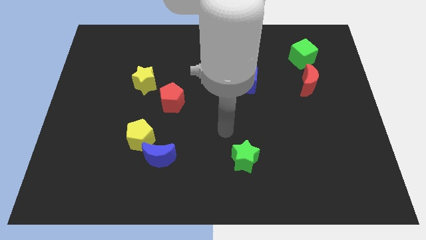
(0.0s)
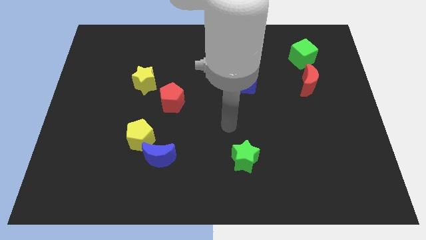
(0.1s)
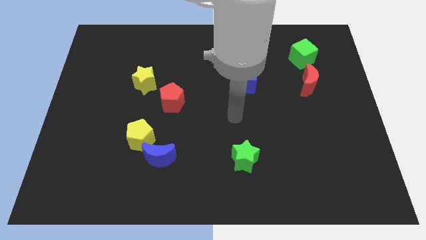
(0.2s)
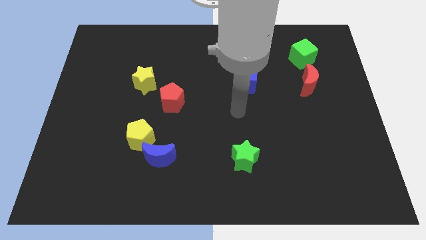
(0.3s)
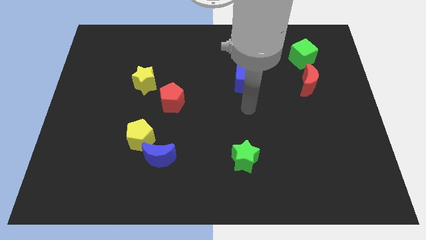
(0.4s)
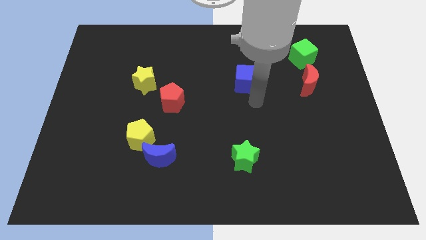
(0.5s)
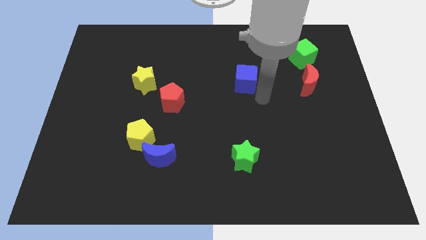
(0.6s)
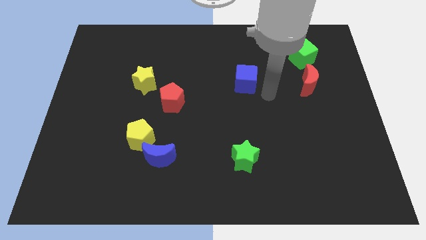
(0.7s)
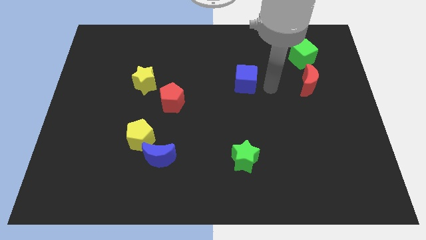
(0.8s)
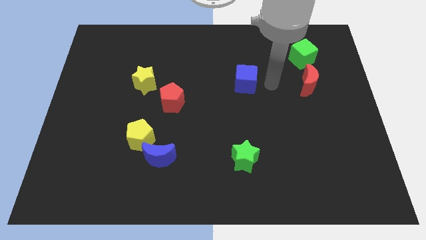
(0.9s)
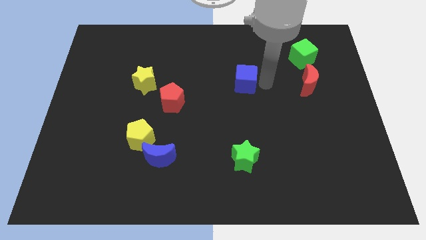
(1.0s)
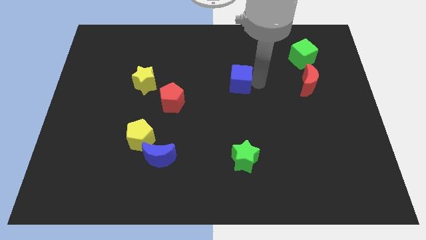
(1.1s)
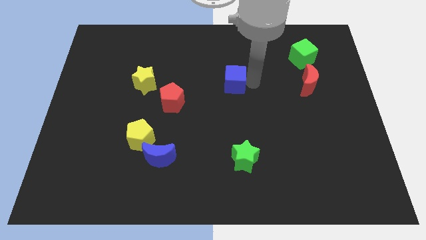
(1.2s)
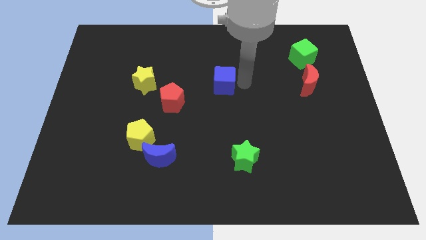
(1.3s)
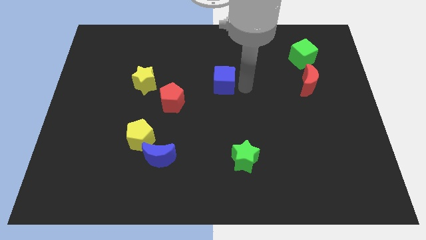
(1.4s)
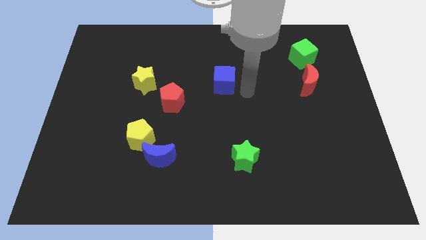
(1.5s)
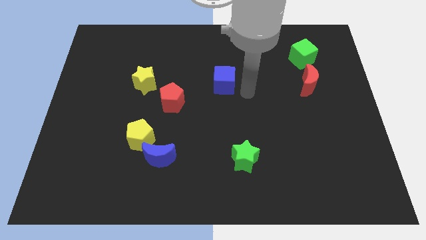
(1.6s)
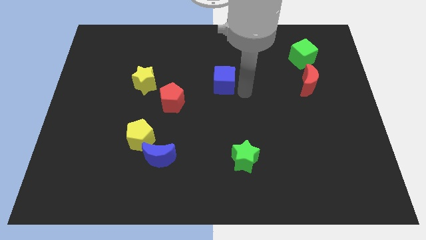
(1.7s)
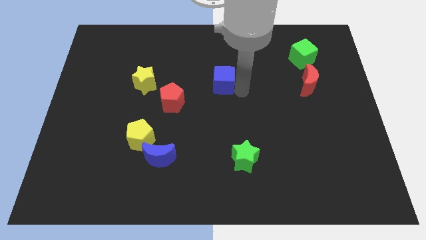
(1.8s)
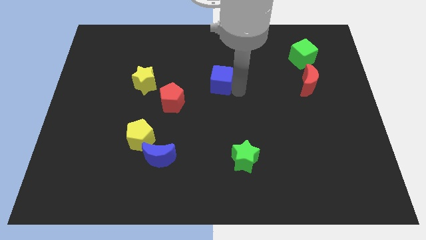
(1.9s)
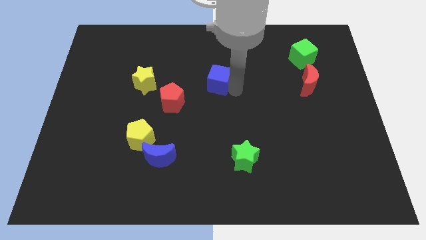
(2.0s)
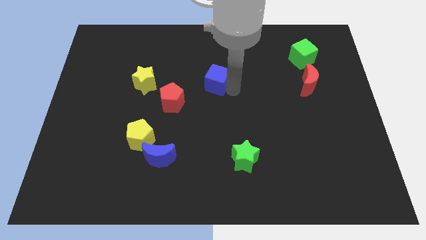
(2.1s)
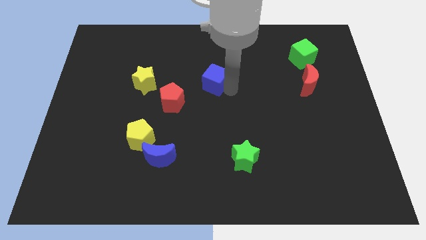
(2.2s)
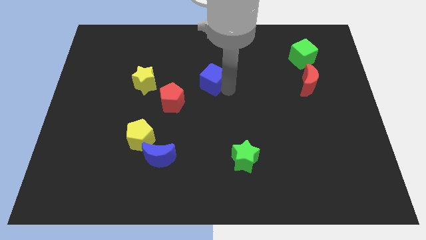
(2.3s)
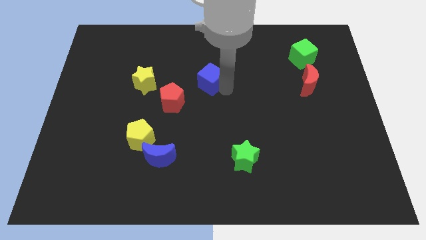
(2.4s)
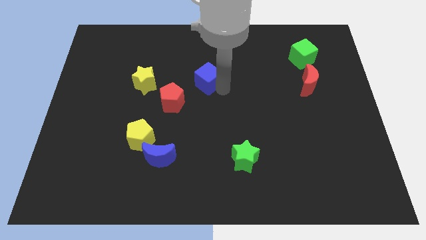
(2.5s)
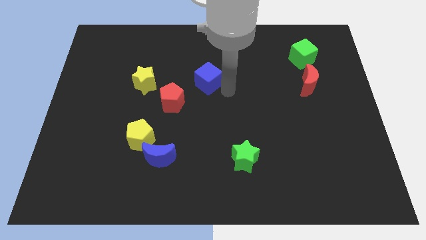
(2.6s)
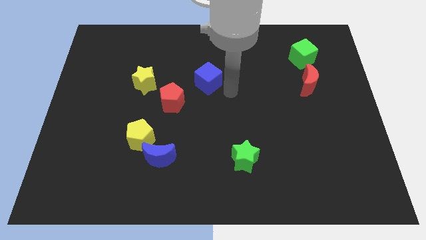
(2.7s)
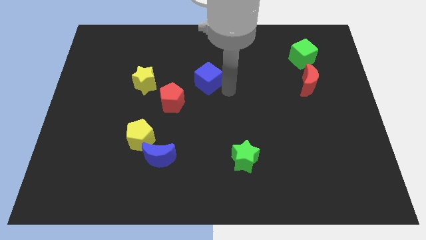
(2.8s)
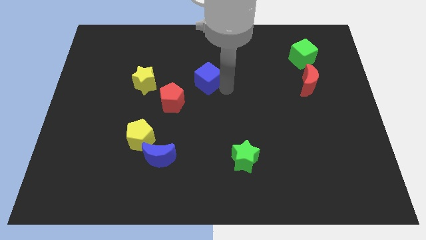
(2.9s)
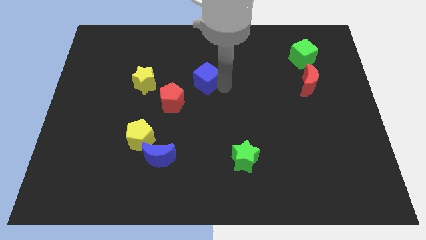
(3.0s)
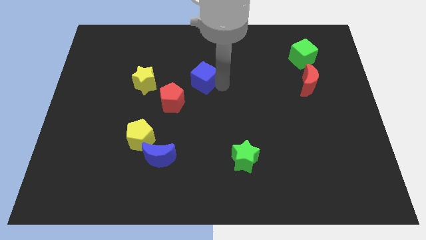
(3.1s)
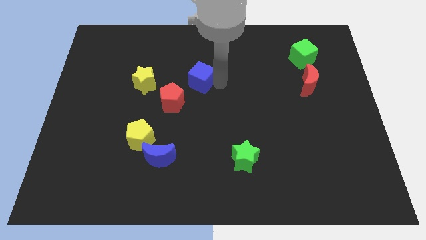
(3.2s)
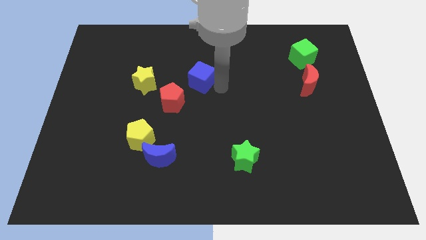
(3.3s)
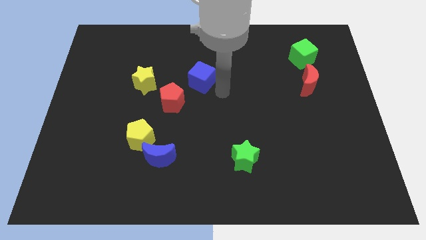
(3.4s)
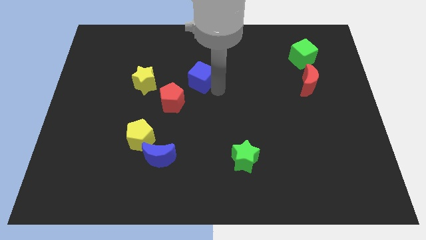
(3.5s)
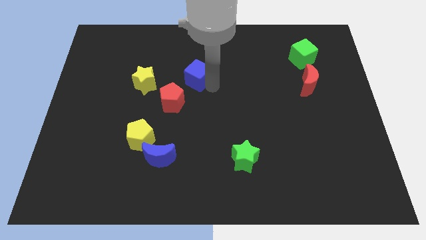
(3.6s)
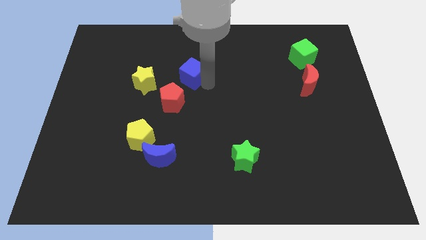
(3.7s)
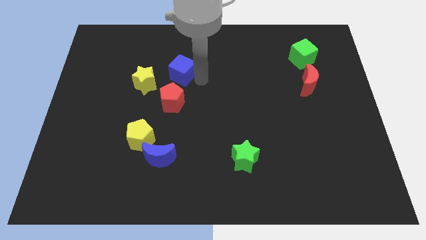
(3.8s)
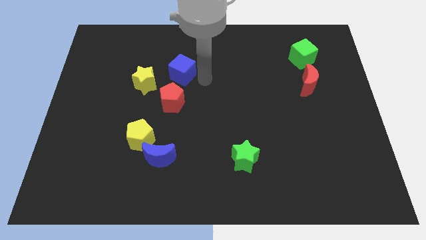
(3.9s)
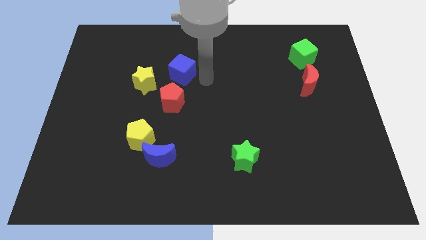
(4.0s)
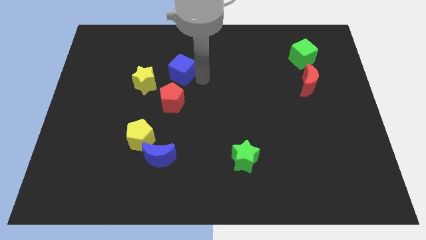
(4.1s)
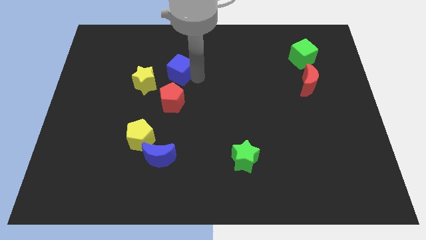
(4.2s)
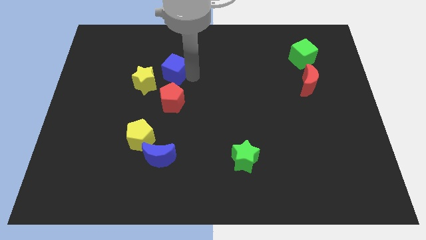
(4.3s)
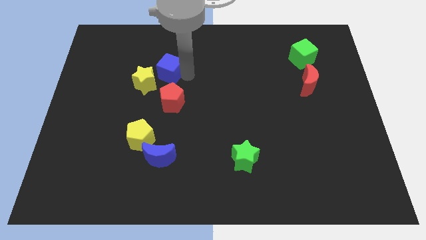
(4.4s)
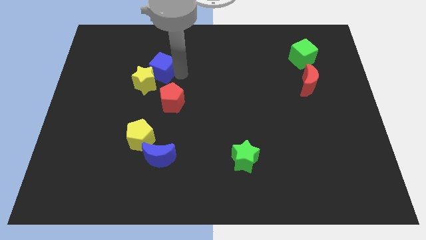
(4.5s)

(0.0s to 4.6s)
slide the blue cube left

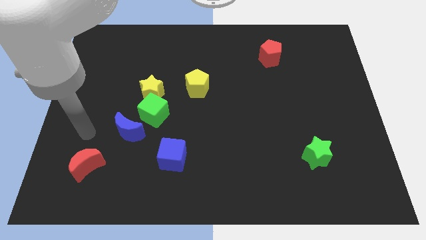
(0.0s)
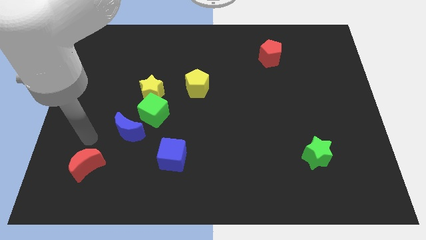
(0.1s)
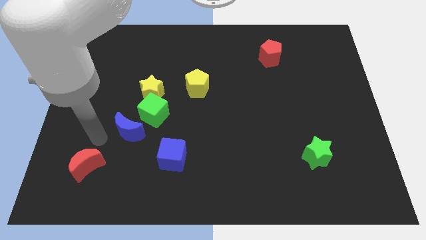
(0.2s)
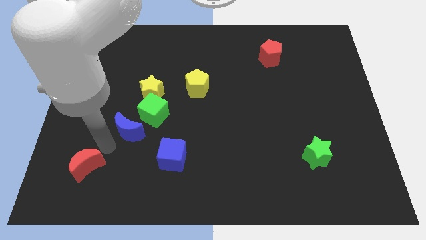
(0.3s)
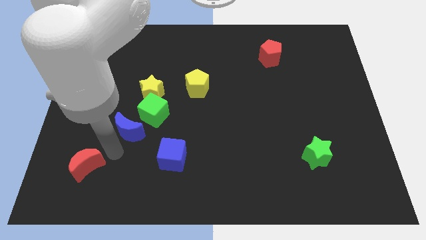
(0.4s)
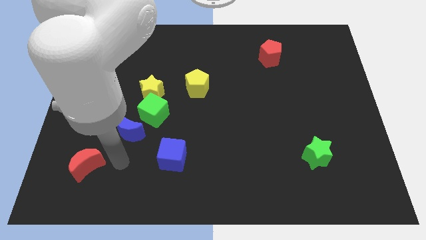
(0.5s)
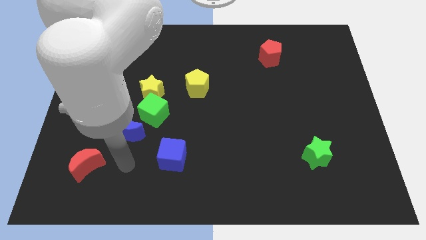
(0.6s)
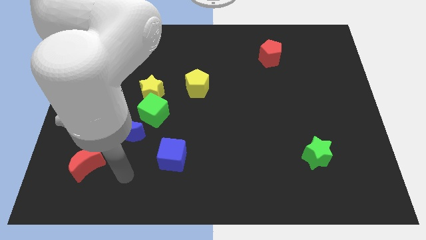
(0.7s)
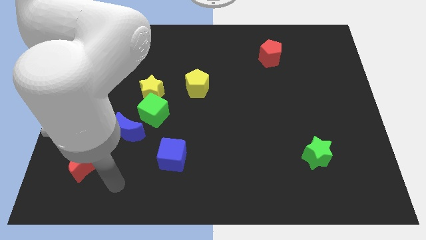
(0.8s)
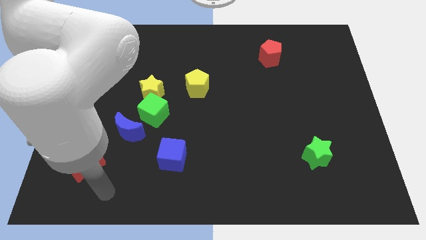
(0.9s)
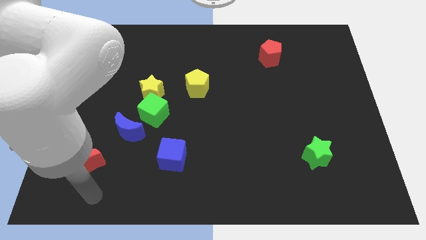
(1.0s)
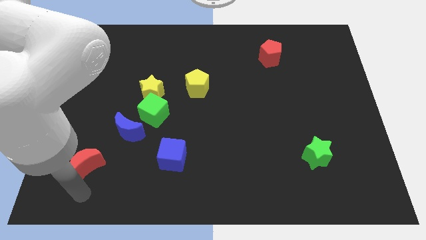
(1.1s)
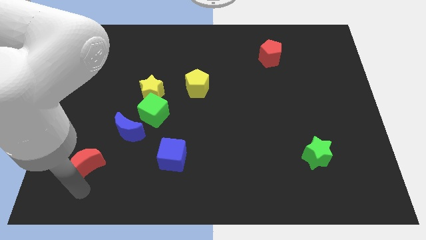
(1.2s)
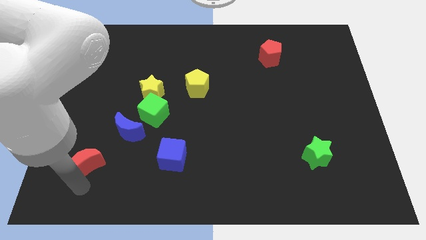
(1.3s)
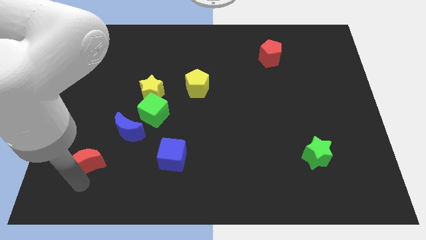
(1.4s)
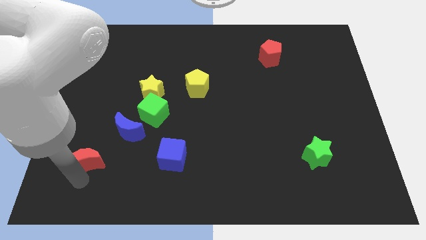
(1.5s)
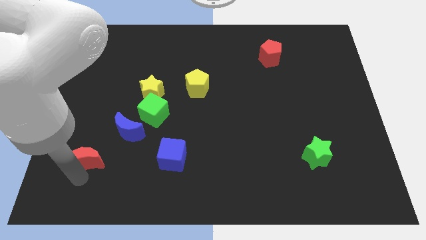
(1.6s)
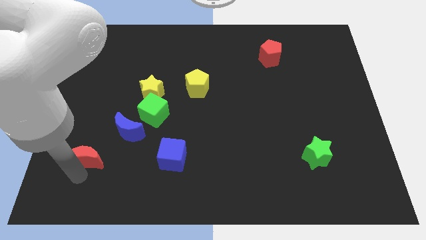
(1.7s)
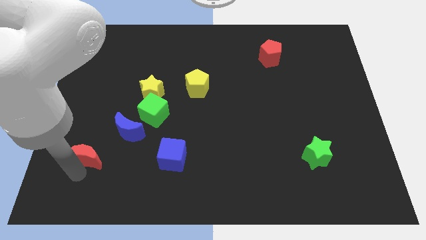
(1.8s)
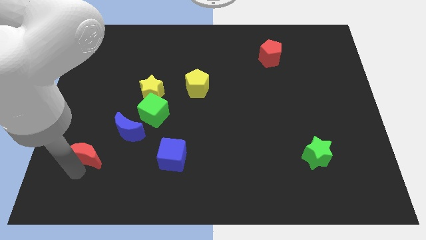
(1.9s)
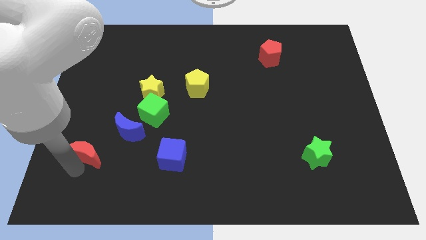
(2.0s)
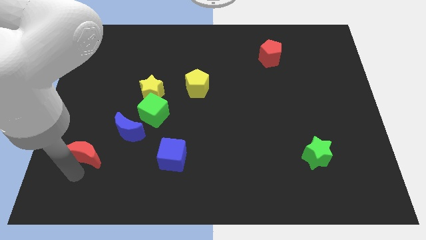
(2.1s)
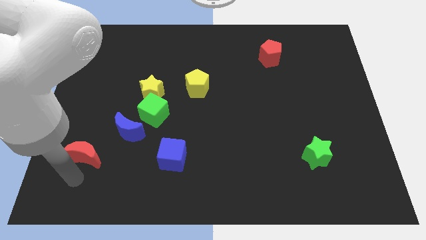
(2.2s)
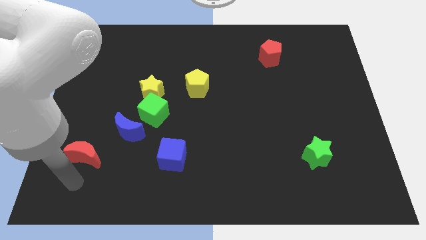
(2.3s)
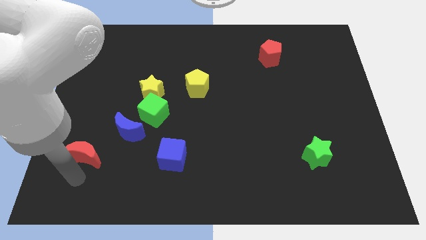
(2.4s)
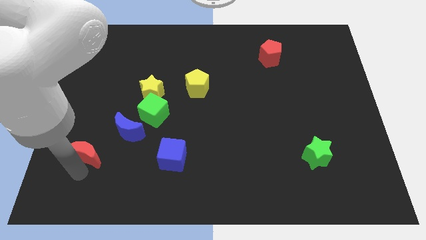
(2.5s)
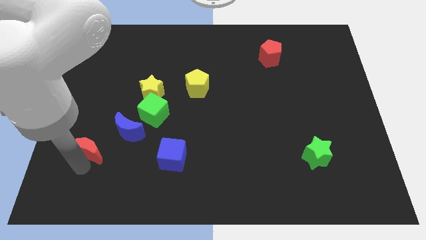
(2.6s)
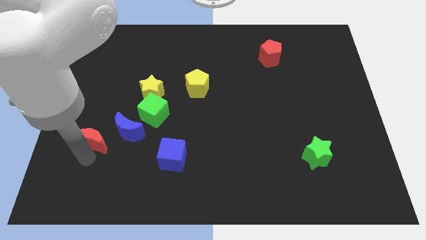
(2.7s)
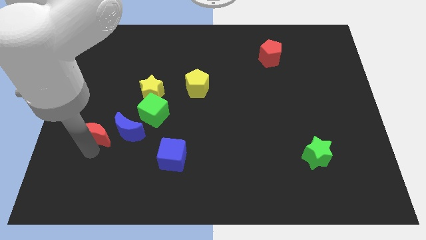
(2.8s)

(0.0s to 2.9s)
move the red moon up somewhat

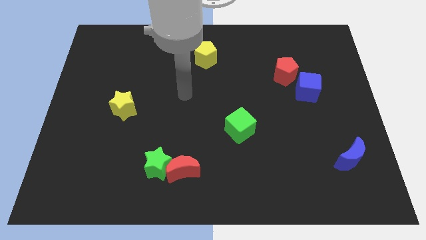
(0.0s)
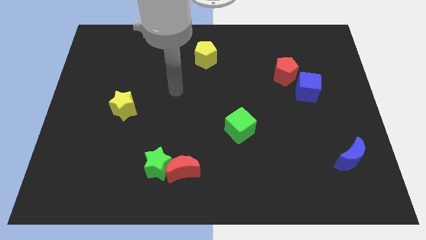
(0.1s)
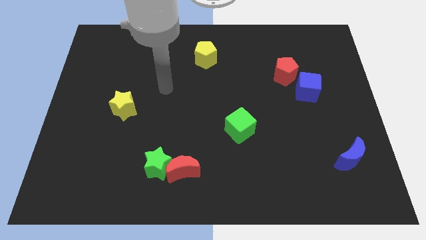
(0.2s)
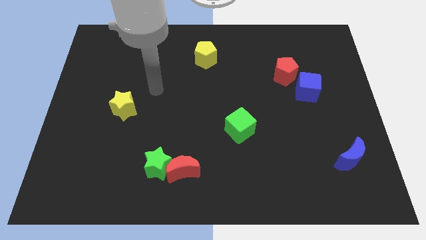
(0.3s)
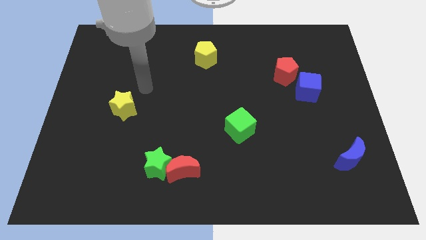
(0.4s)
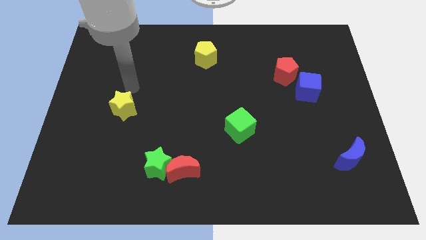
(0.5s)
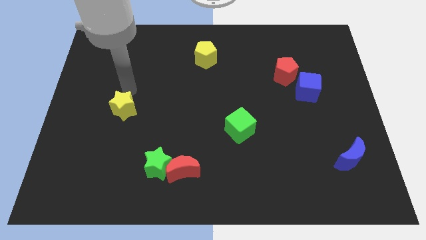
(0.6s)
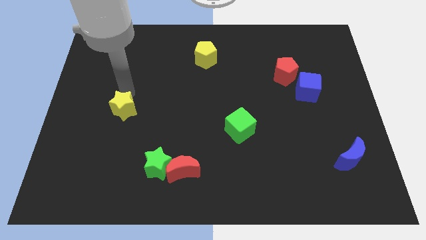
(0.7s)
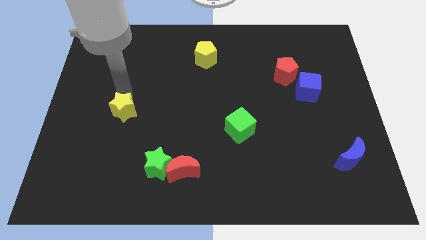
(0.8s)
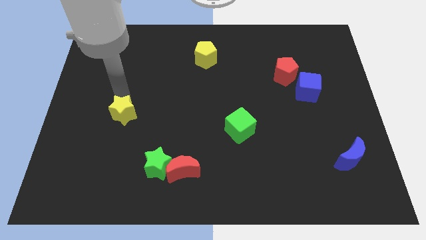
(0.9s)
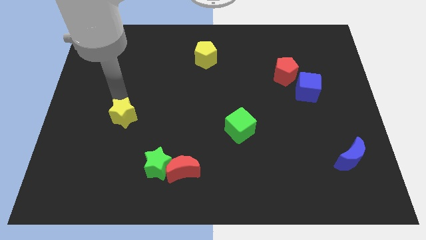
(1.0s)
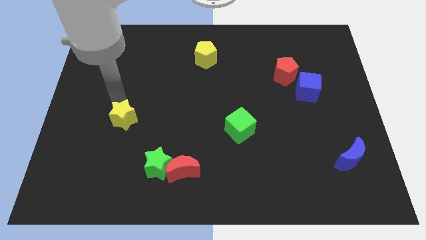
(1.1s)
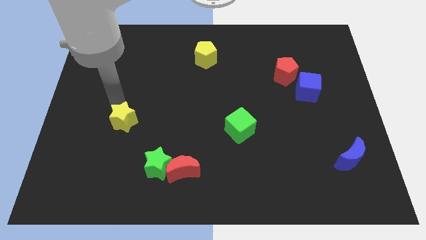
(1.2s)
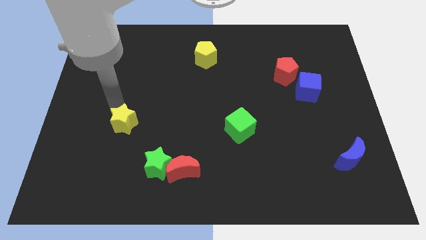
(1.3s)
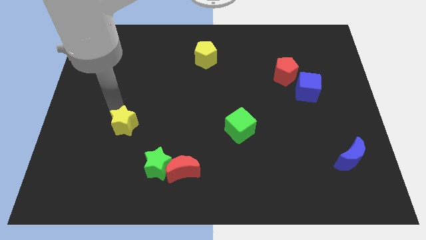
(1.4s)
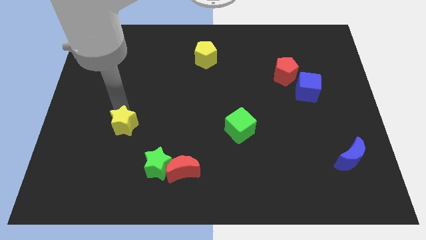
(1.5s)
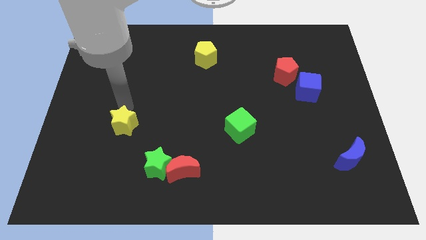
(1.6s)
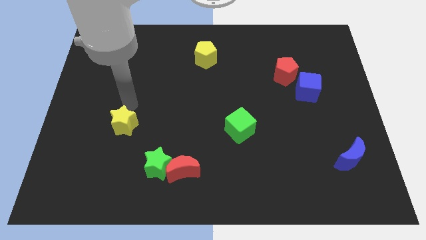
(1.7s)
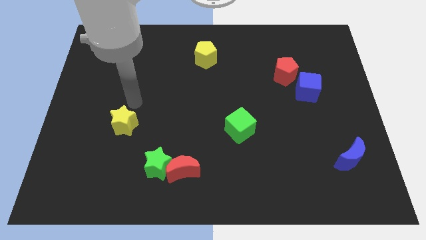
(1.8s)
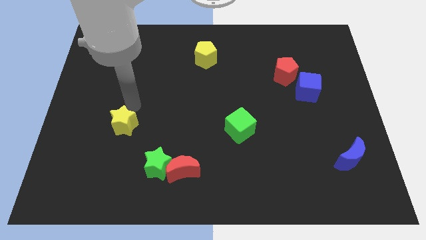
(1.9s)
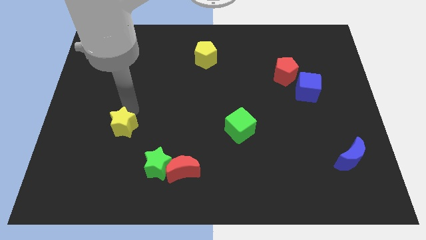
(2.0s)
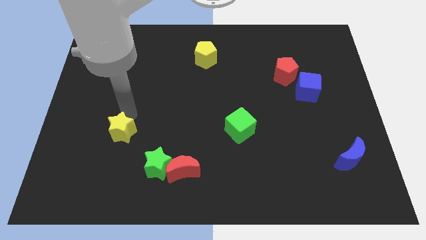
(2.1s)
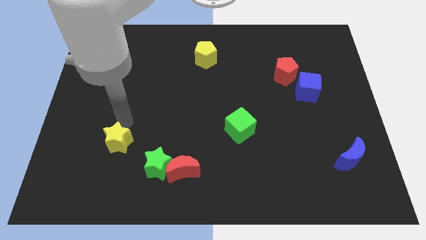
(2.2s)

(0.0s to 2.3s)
push the yellow star down somewhat
